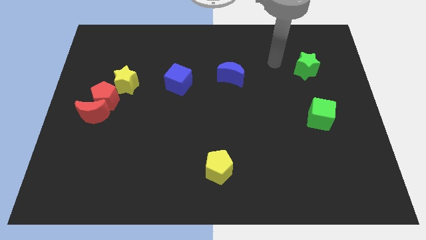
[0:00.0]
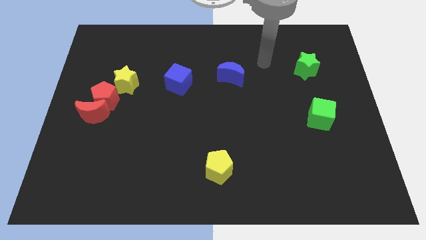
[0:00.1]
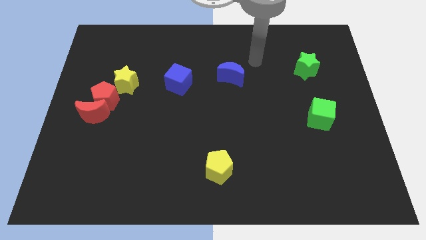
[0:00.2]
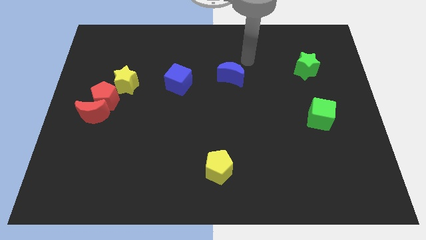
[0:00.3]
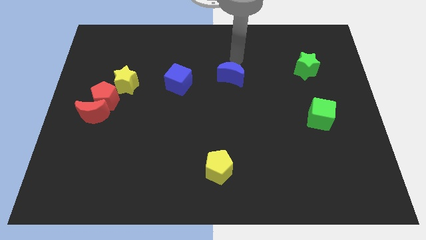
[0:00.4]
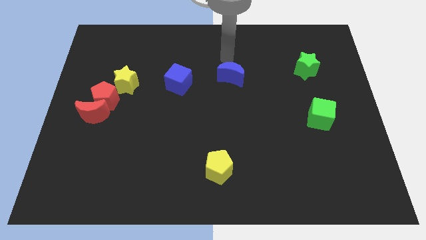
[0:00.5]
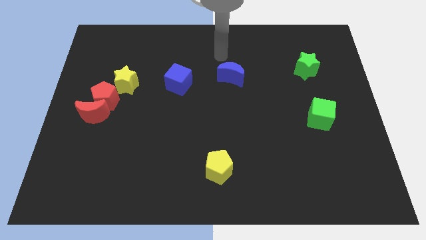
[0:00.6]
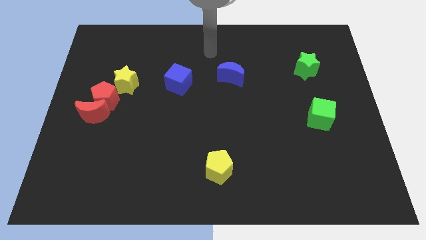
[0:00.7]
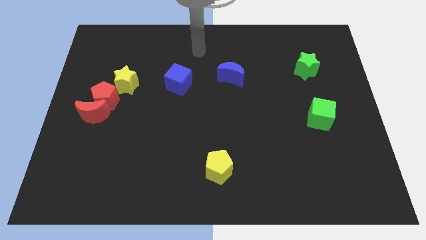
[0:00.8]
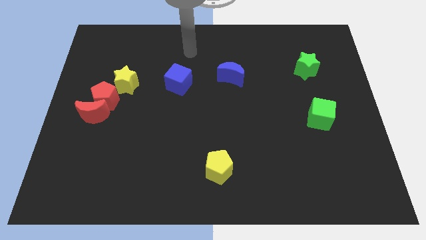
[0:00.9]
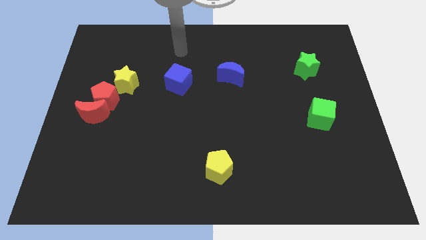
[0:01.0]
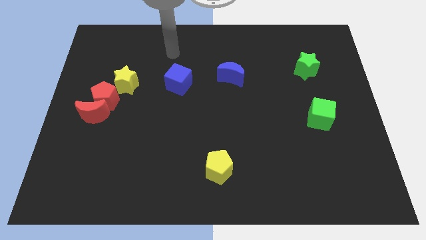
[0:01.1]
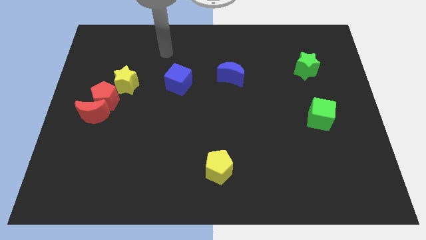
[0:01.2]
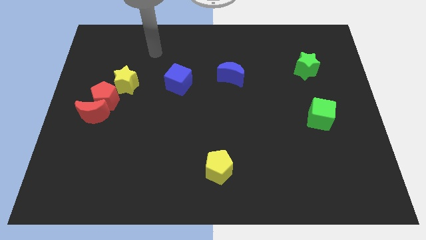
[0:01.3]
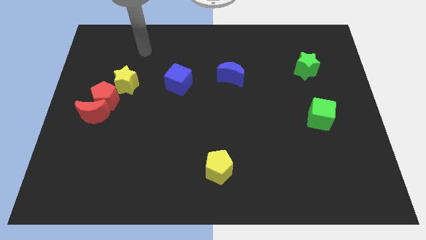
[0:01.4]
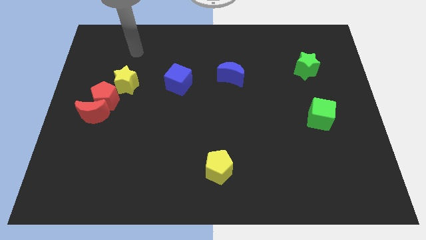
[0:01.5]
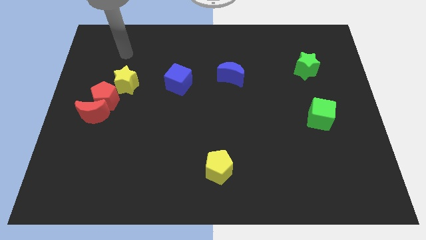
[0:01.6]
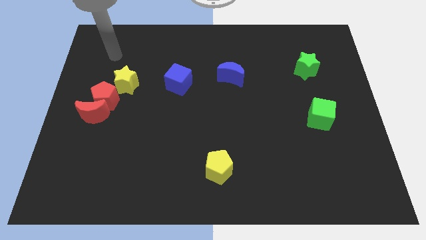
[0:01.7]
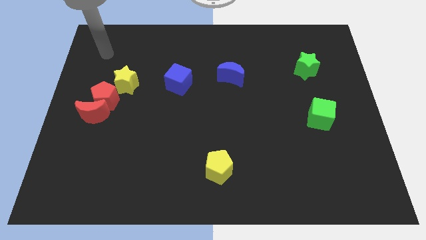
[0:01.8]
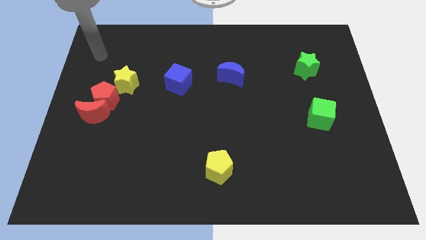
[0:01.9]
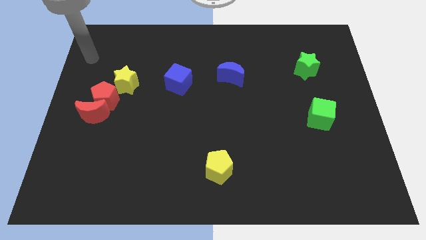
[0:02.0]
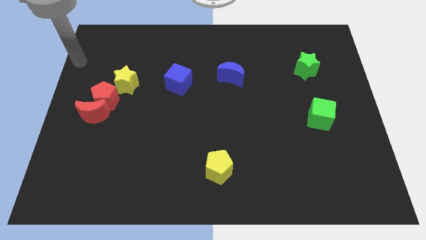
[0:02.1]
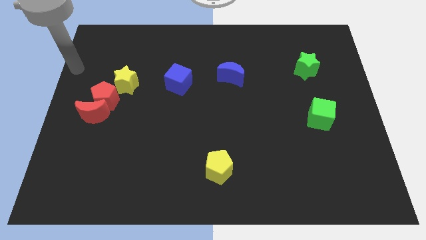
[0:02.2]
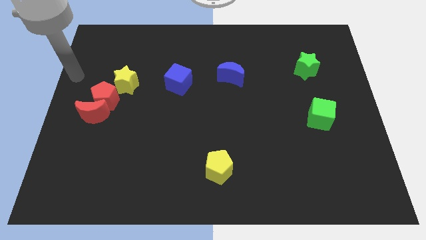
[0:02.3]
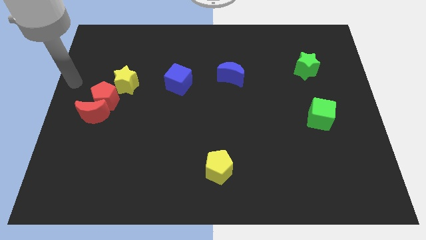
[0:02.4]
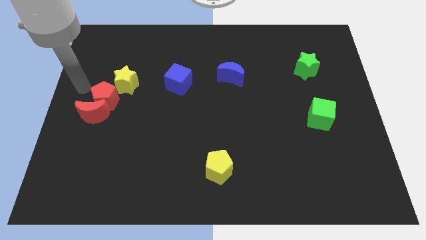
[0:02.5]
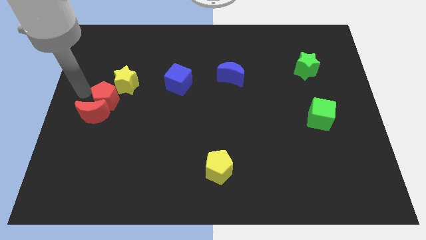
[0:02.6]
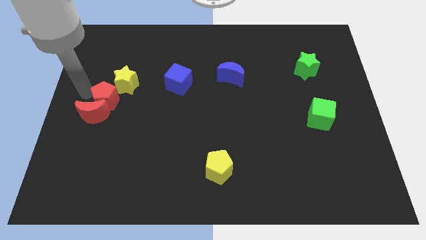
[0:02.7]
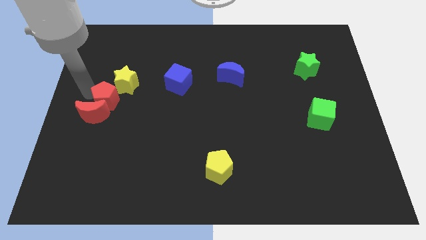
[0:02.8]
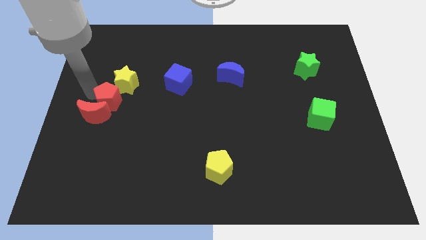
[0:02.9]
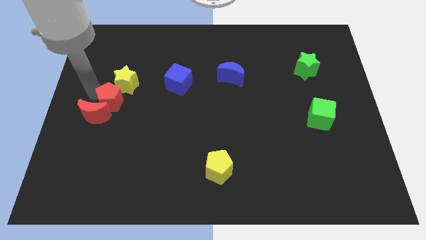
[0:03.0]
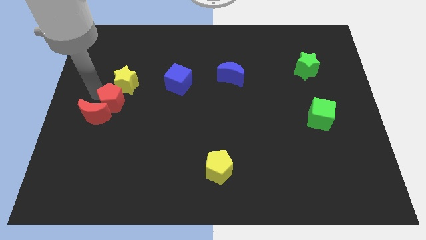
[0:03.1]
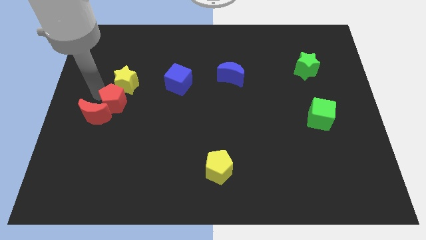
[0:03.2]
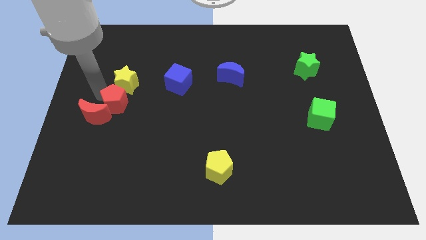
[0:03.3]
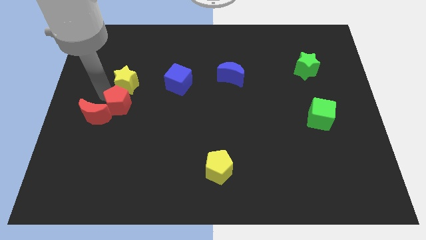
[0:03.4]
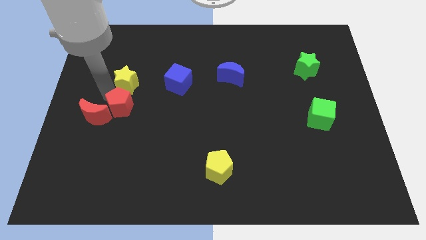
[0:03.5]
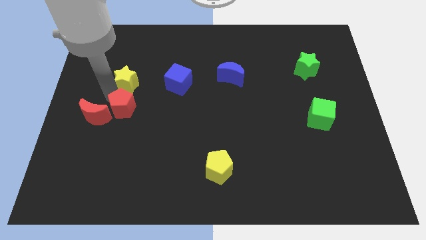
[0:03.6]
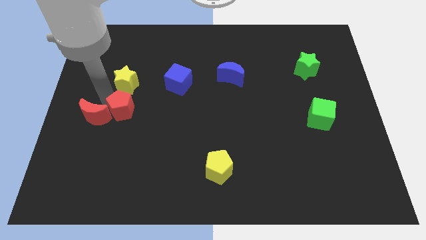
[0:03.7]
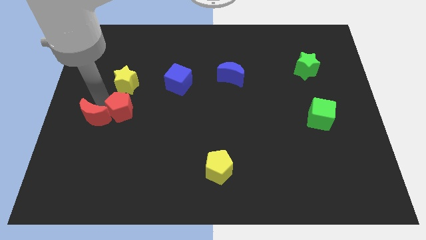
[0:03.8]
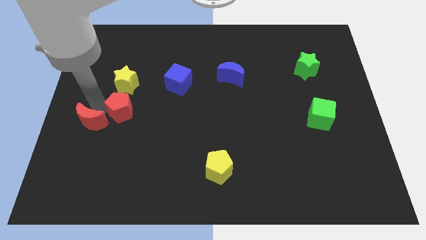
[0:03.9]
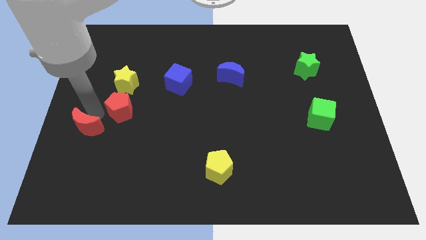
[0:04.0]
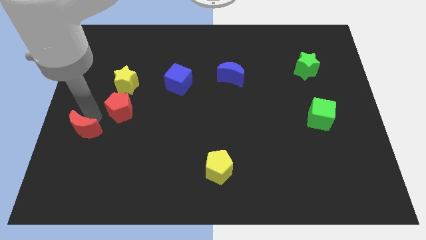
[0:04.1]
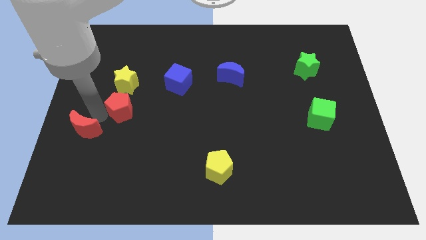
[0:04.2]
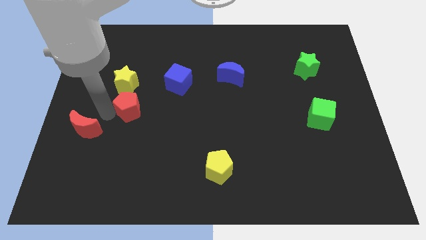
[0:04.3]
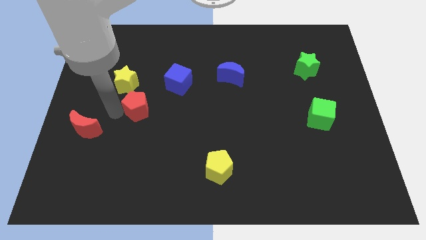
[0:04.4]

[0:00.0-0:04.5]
push the red pentagon slightly right

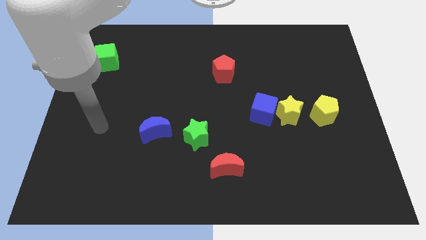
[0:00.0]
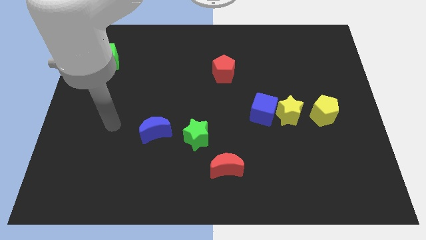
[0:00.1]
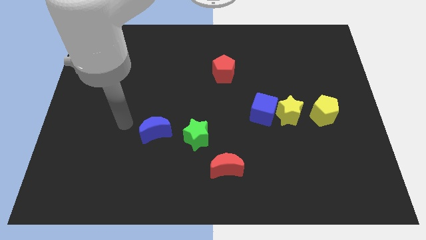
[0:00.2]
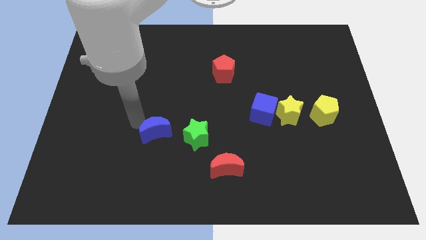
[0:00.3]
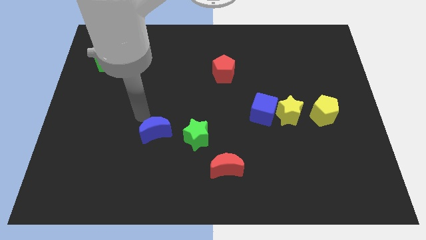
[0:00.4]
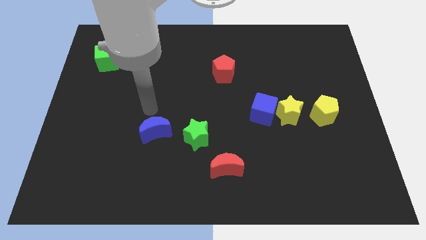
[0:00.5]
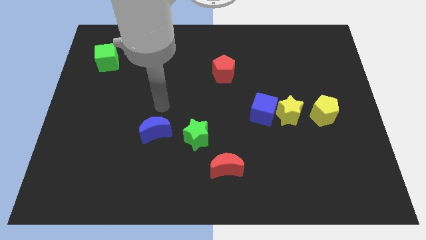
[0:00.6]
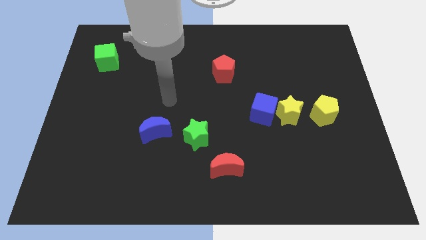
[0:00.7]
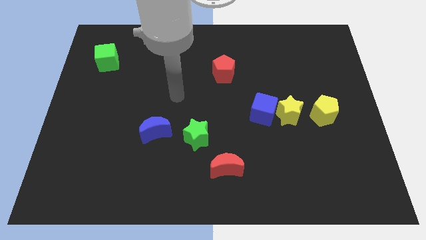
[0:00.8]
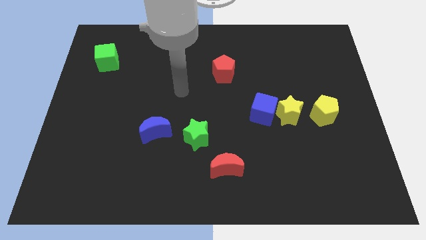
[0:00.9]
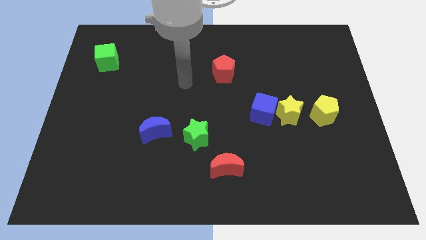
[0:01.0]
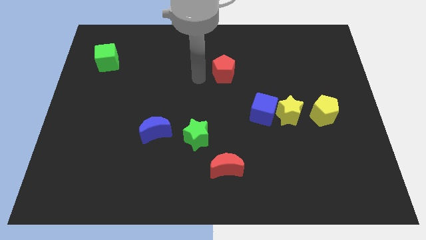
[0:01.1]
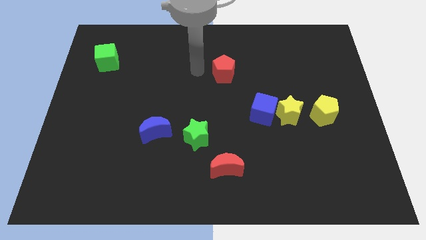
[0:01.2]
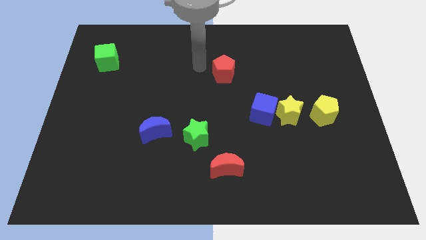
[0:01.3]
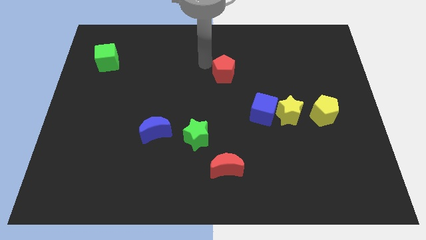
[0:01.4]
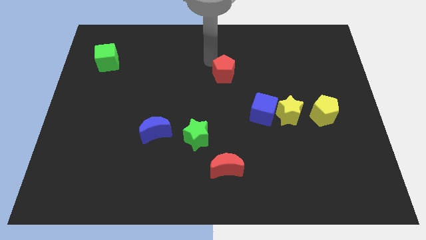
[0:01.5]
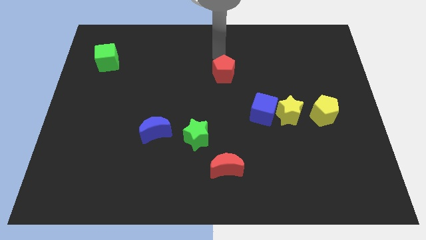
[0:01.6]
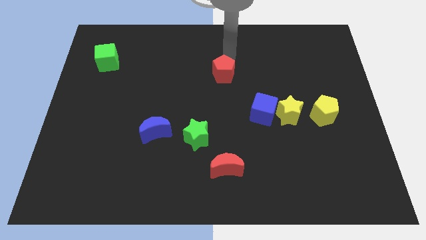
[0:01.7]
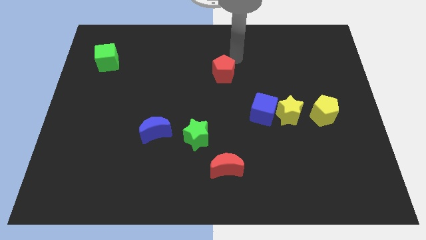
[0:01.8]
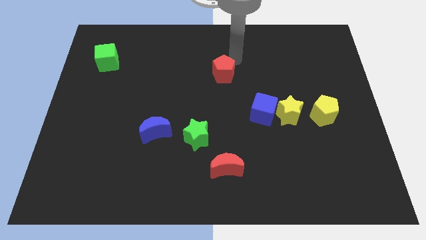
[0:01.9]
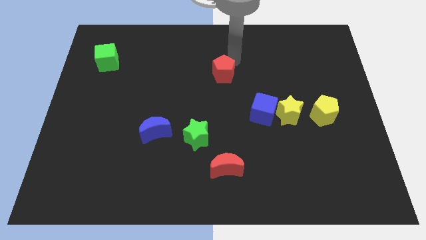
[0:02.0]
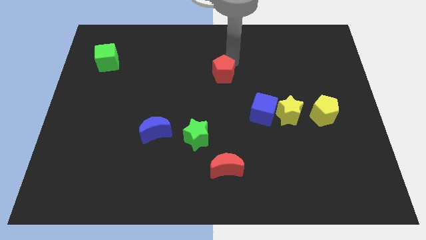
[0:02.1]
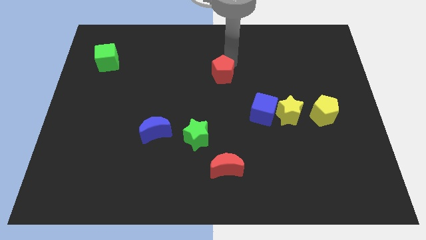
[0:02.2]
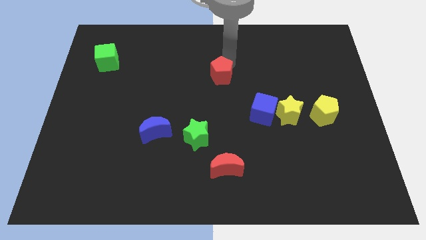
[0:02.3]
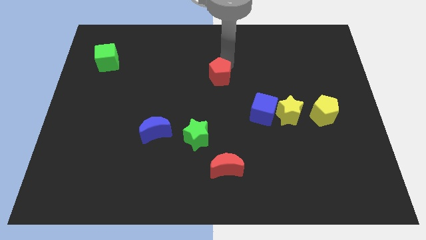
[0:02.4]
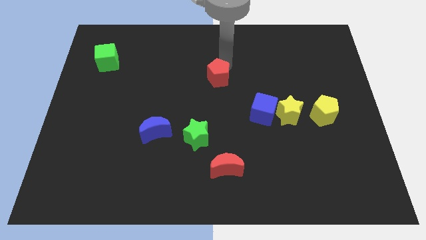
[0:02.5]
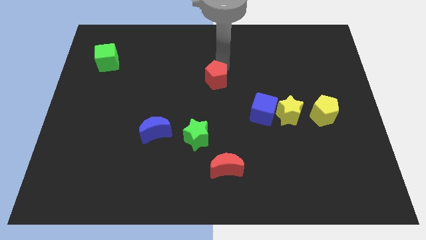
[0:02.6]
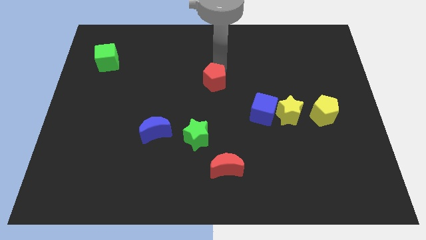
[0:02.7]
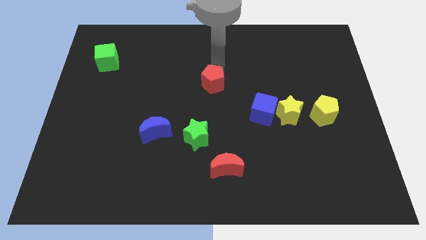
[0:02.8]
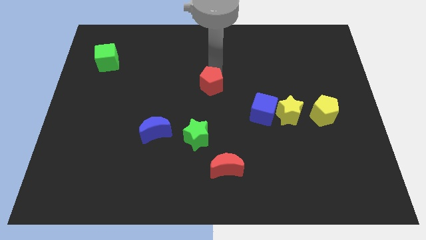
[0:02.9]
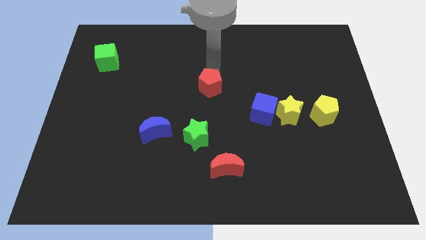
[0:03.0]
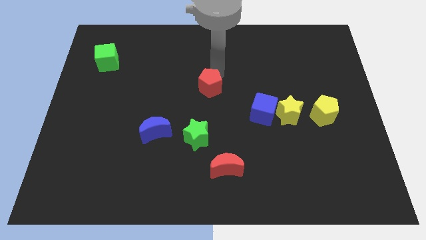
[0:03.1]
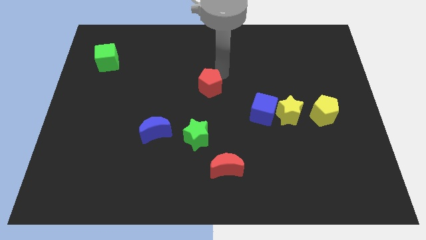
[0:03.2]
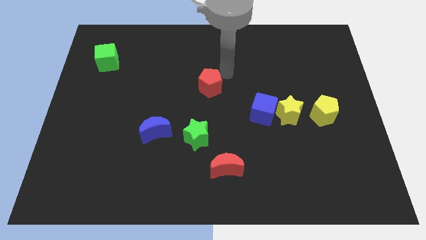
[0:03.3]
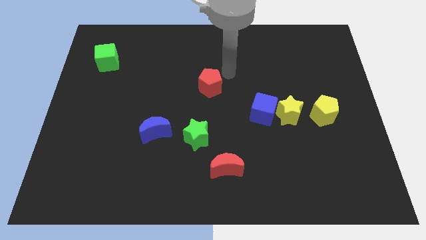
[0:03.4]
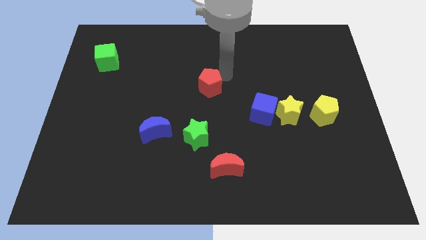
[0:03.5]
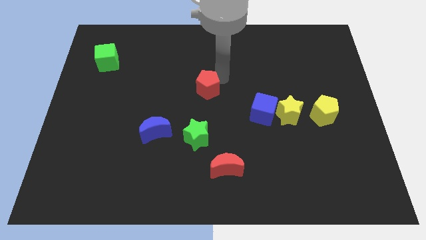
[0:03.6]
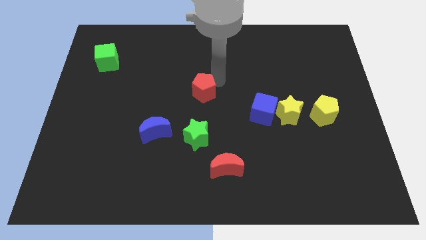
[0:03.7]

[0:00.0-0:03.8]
slightly push the red pentagon downwards and left diagonally
